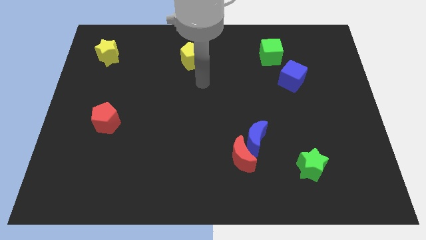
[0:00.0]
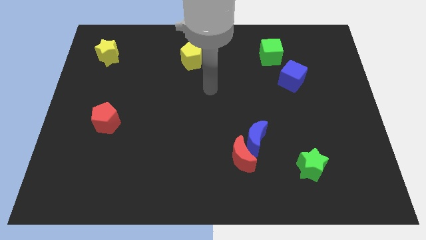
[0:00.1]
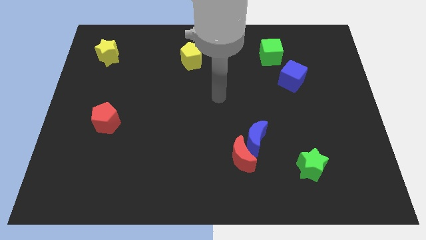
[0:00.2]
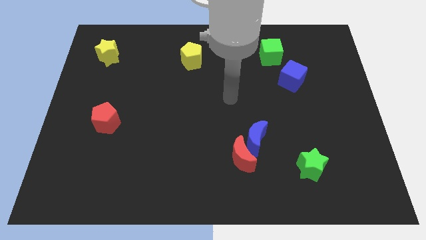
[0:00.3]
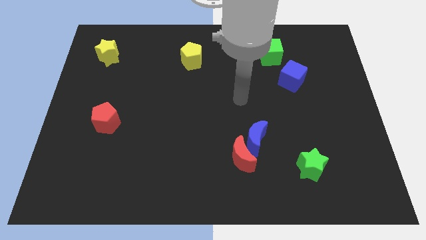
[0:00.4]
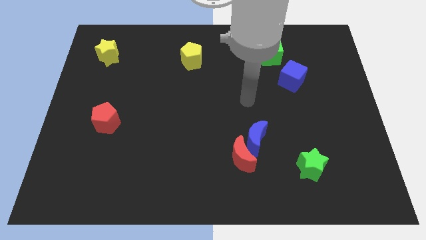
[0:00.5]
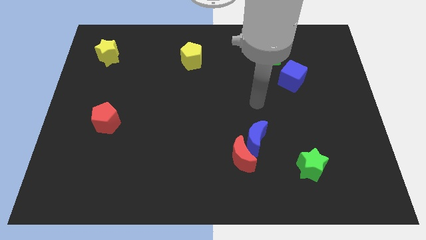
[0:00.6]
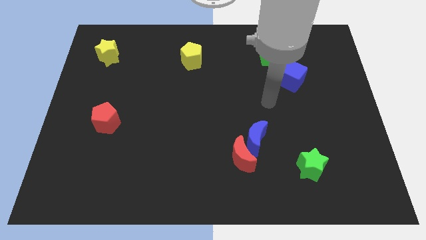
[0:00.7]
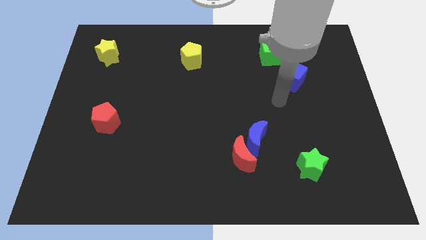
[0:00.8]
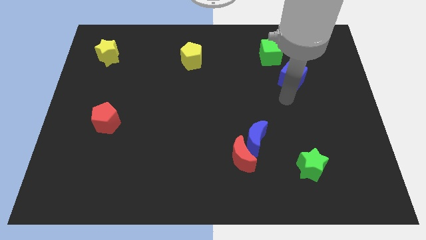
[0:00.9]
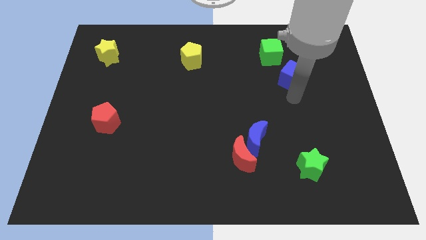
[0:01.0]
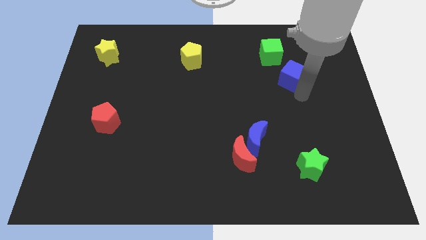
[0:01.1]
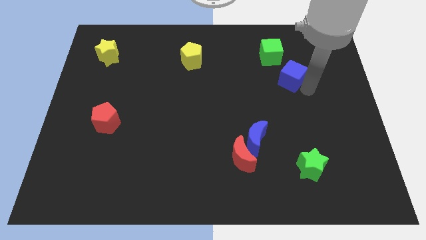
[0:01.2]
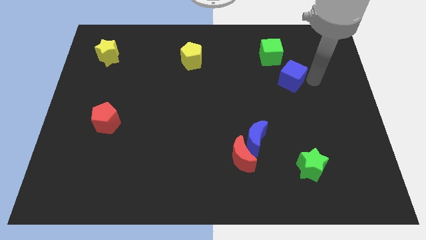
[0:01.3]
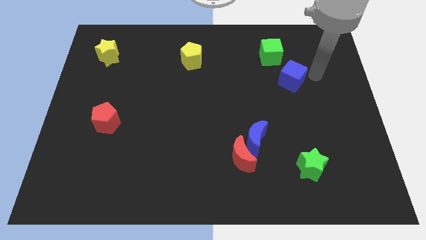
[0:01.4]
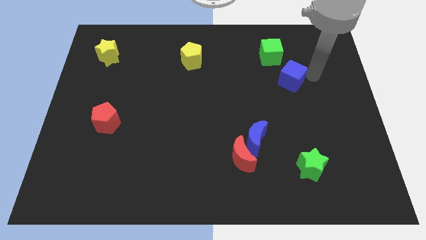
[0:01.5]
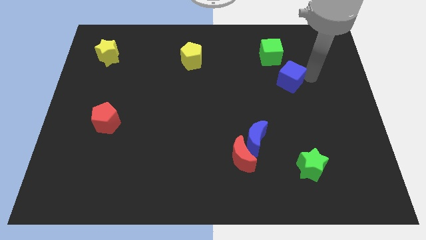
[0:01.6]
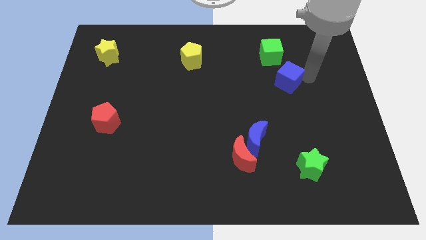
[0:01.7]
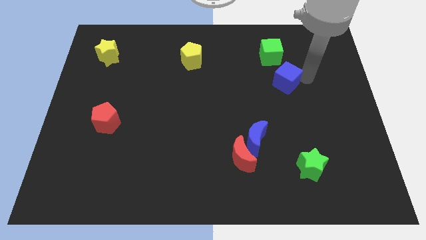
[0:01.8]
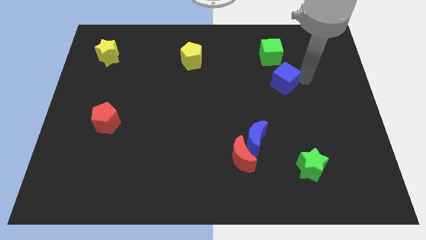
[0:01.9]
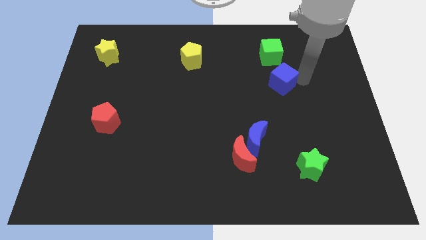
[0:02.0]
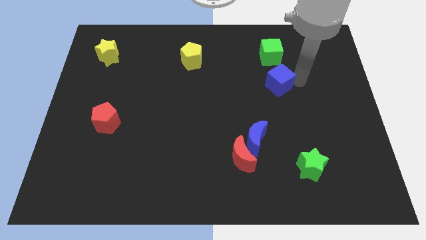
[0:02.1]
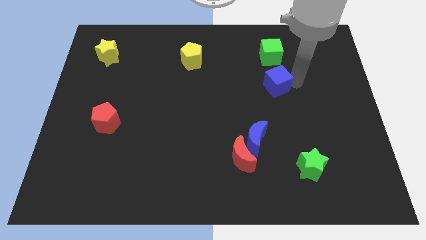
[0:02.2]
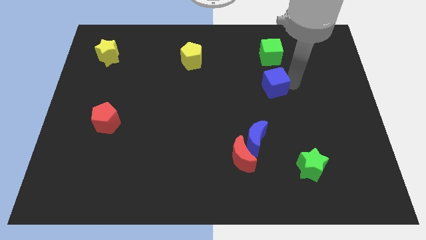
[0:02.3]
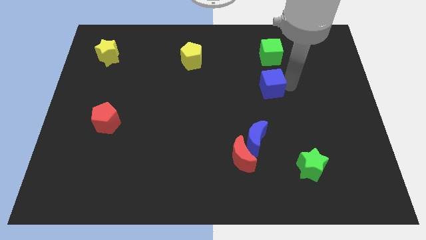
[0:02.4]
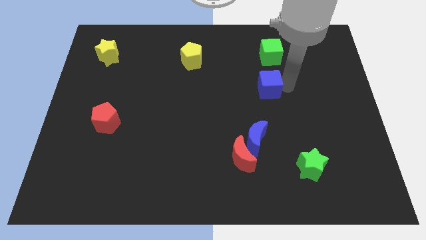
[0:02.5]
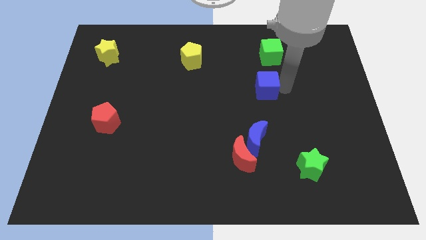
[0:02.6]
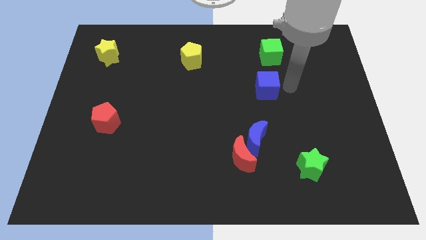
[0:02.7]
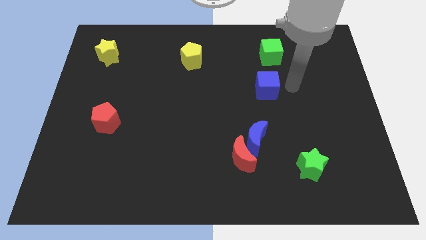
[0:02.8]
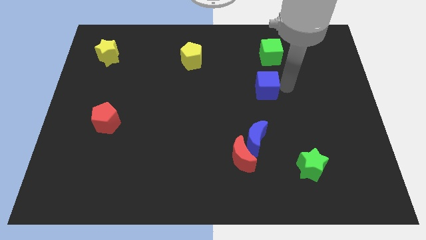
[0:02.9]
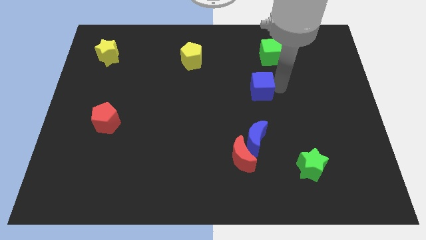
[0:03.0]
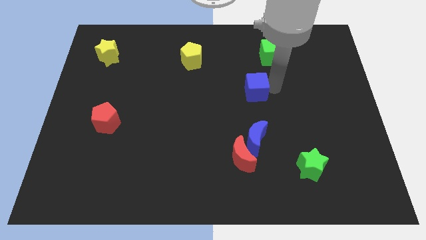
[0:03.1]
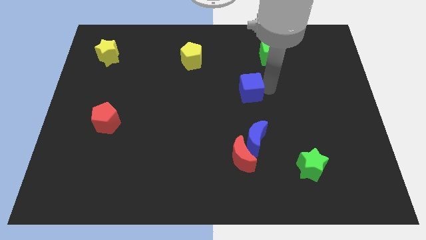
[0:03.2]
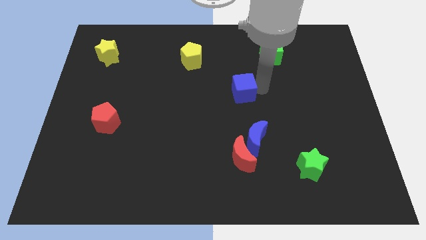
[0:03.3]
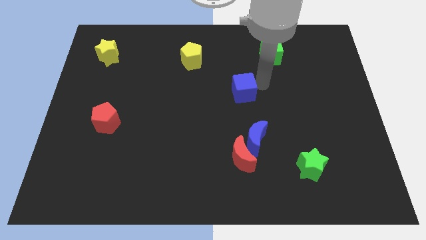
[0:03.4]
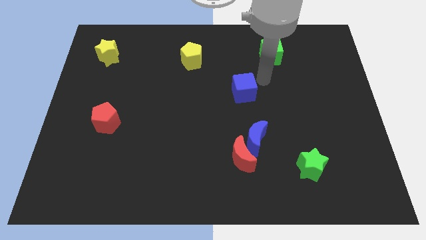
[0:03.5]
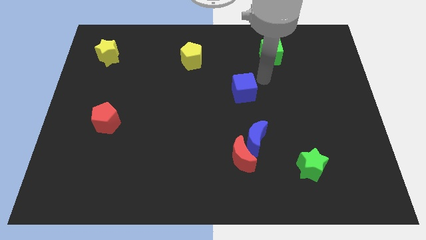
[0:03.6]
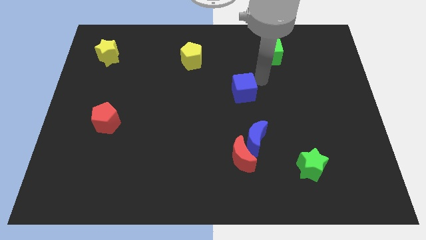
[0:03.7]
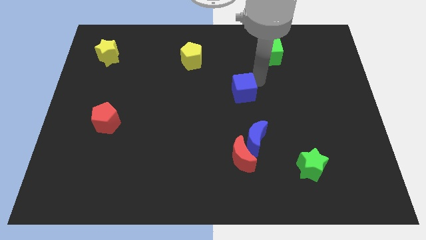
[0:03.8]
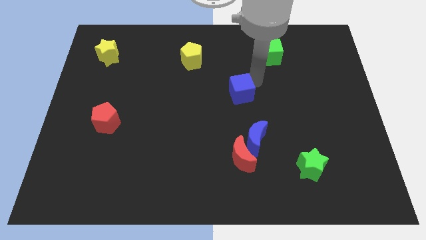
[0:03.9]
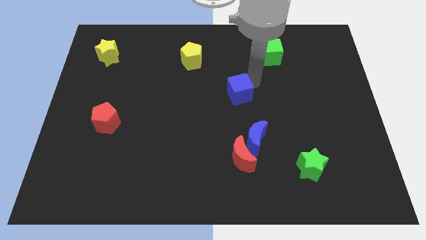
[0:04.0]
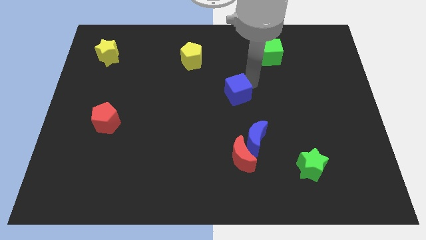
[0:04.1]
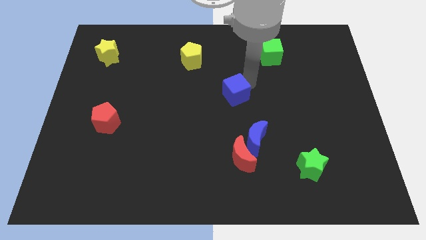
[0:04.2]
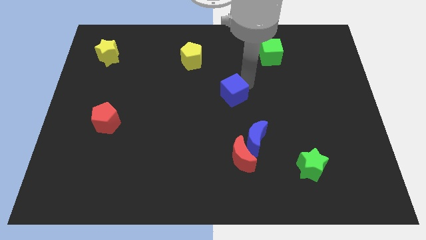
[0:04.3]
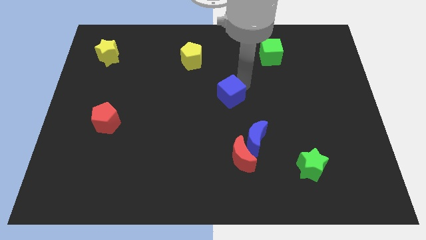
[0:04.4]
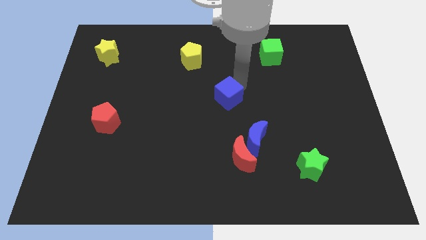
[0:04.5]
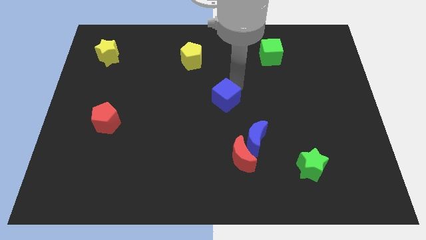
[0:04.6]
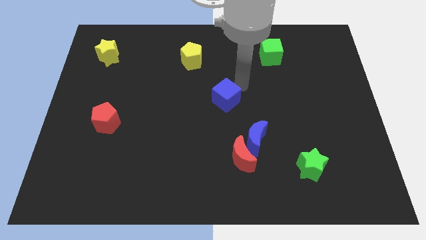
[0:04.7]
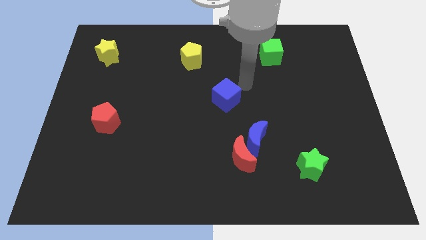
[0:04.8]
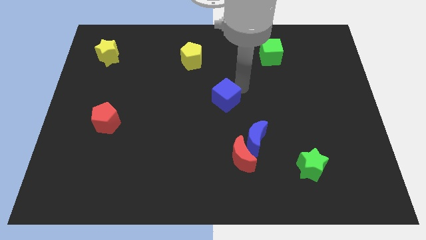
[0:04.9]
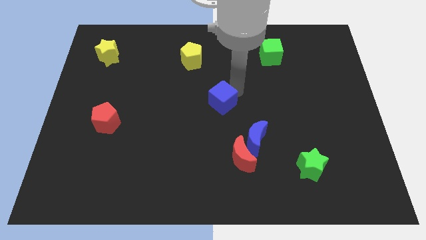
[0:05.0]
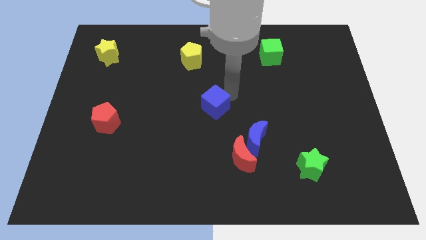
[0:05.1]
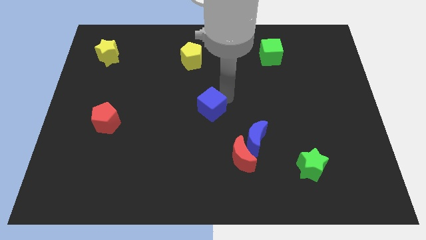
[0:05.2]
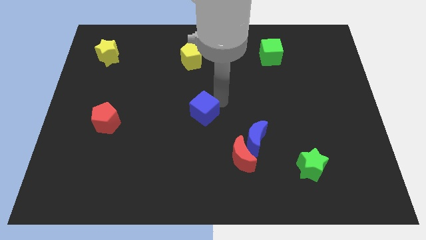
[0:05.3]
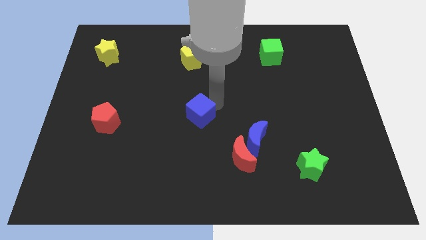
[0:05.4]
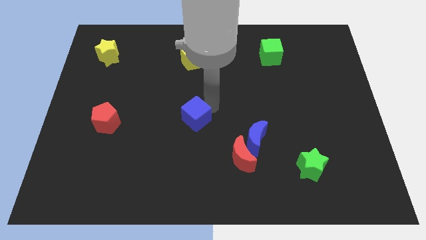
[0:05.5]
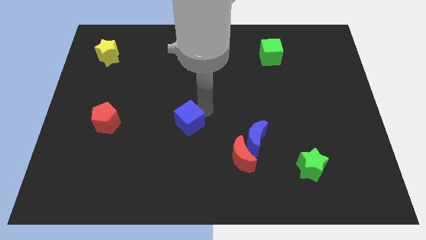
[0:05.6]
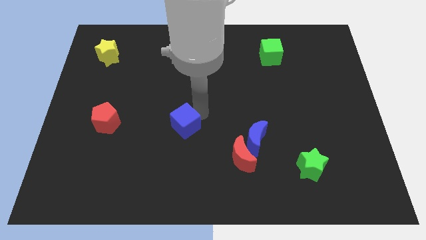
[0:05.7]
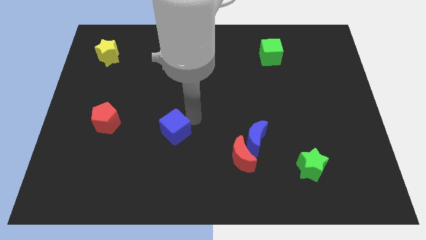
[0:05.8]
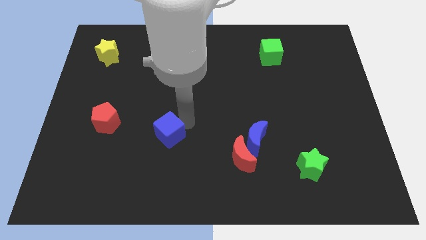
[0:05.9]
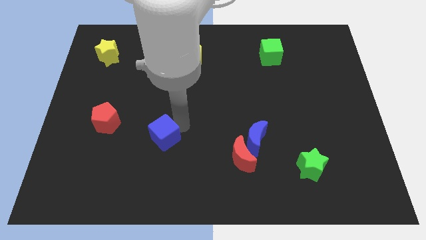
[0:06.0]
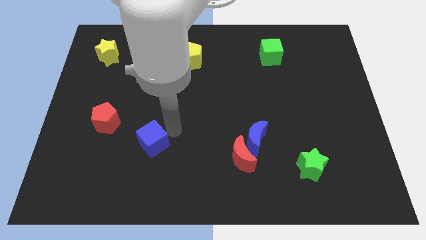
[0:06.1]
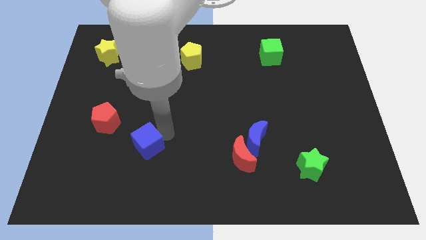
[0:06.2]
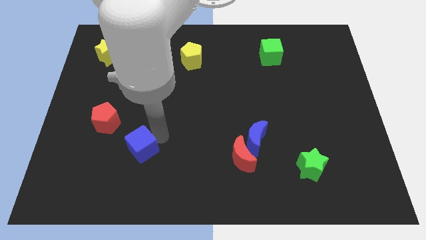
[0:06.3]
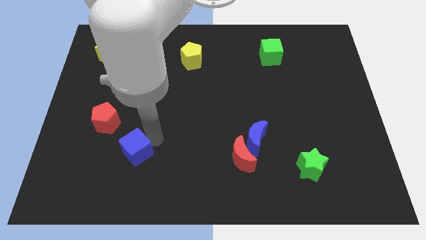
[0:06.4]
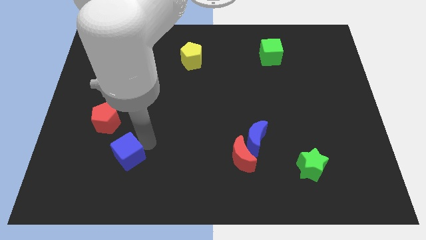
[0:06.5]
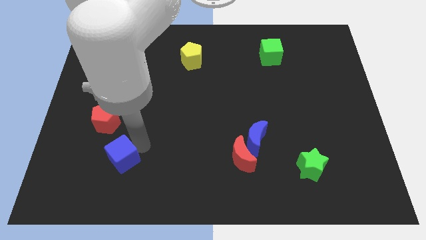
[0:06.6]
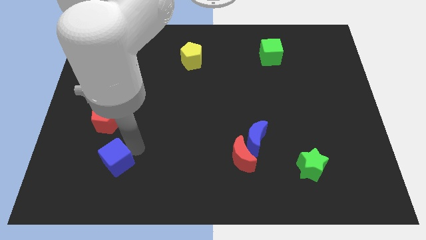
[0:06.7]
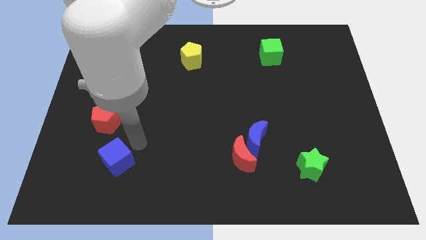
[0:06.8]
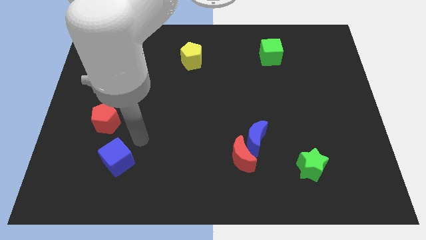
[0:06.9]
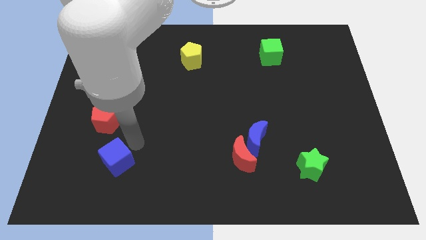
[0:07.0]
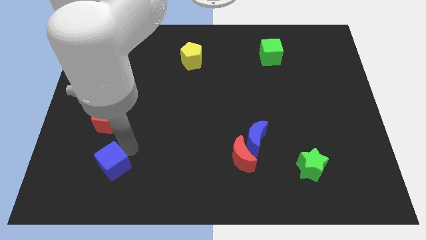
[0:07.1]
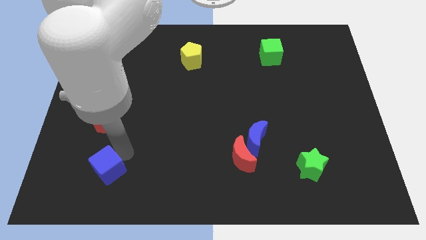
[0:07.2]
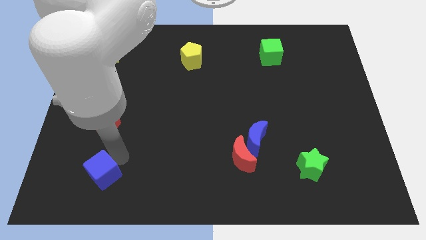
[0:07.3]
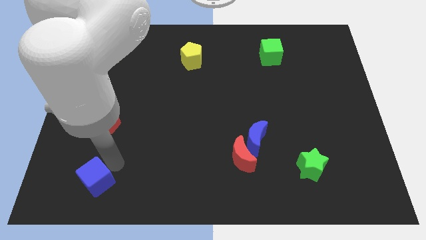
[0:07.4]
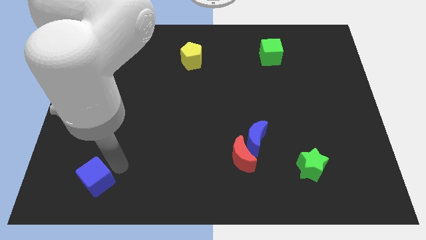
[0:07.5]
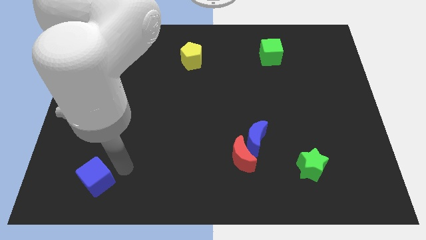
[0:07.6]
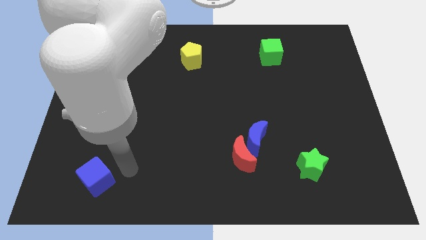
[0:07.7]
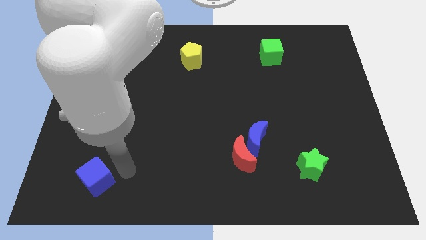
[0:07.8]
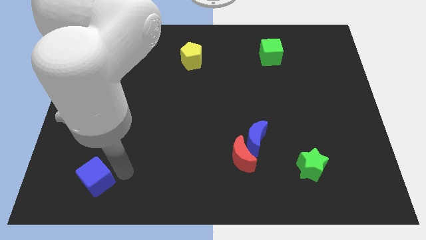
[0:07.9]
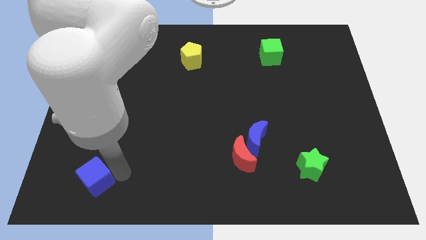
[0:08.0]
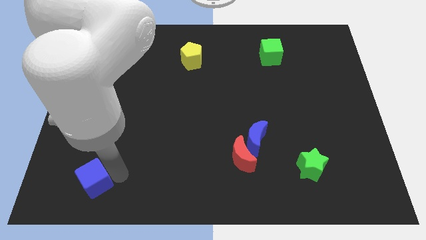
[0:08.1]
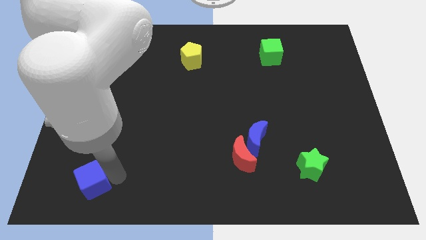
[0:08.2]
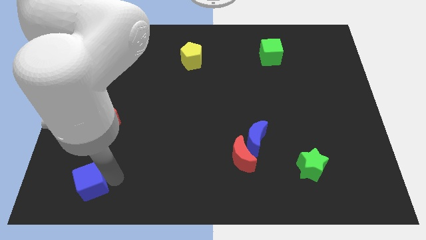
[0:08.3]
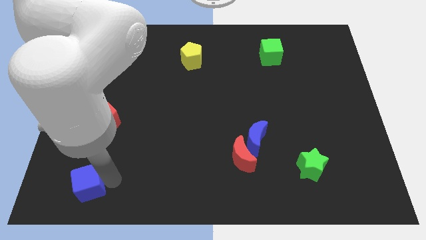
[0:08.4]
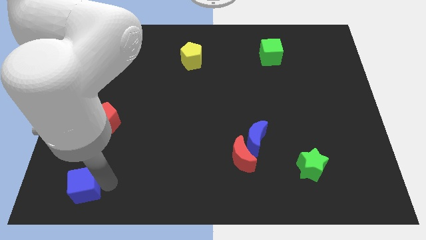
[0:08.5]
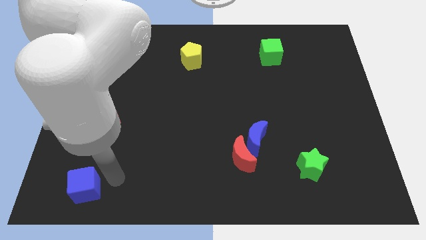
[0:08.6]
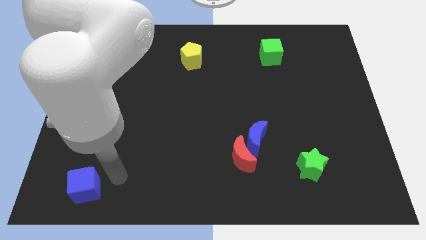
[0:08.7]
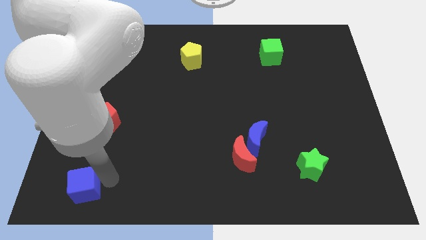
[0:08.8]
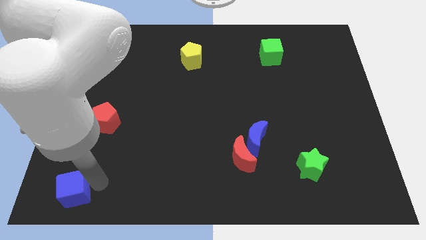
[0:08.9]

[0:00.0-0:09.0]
push the blue cube to the lower left corner
